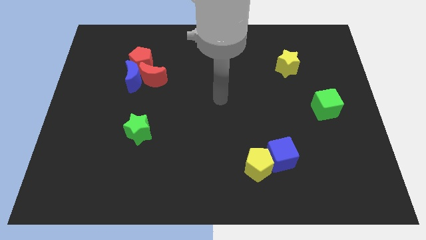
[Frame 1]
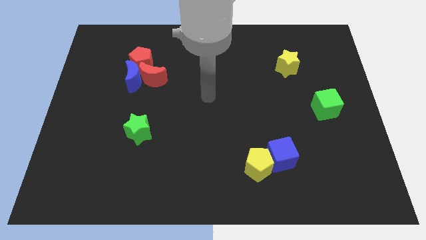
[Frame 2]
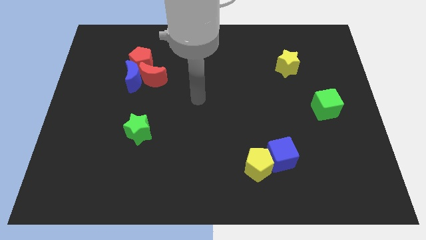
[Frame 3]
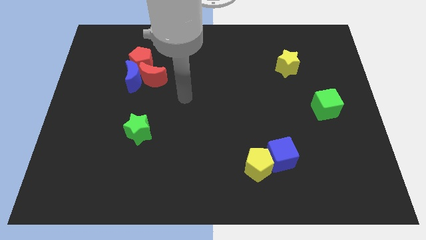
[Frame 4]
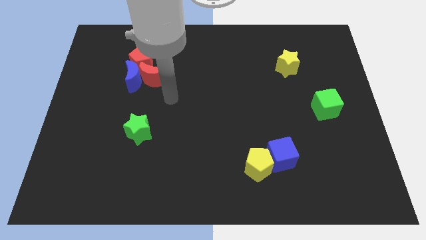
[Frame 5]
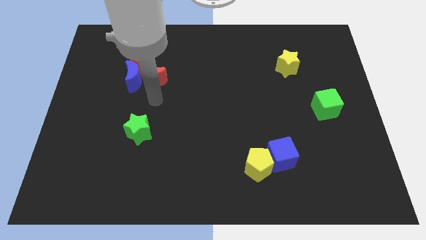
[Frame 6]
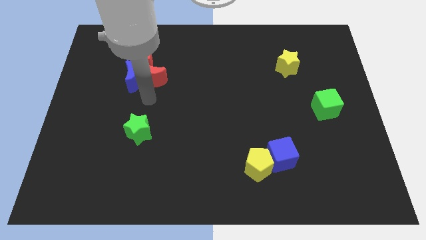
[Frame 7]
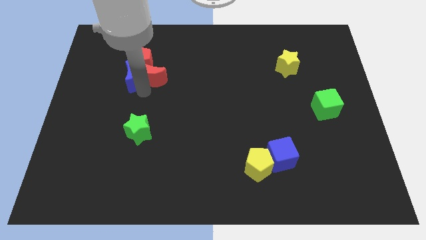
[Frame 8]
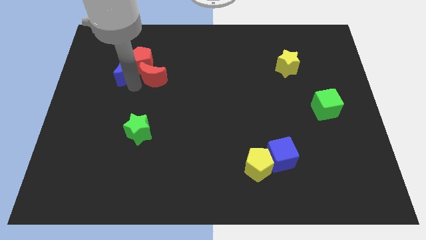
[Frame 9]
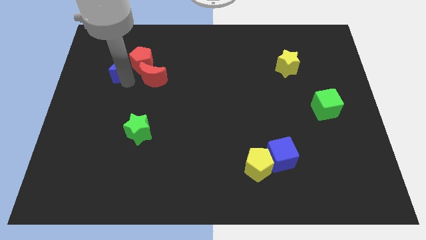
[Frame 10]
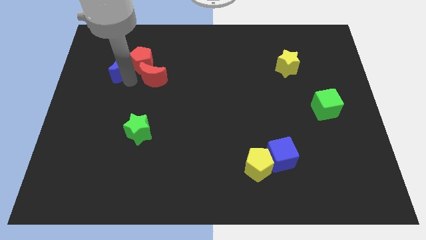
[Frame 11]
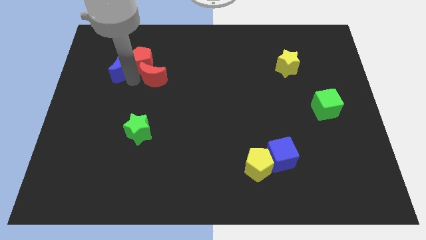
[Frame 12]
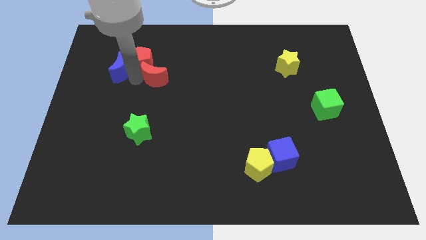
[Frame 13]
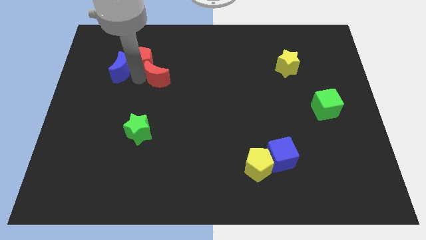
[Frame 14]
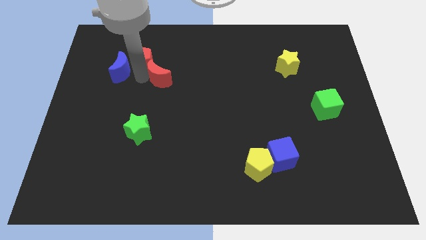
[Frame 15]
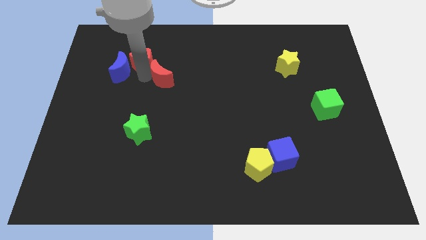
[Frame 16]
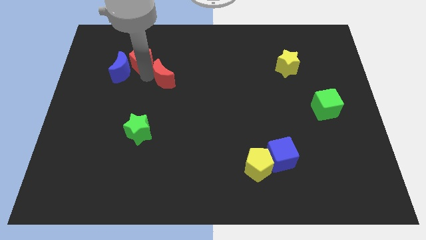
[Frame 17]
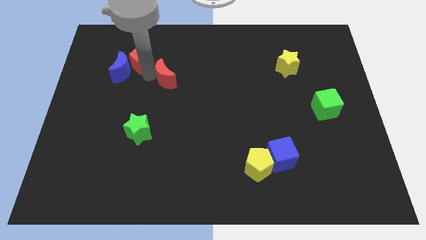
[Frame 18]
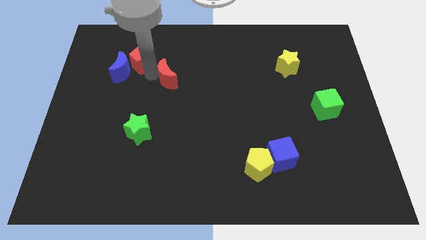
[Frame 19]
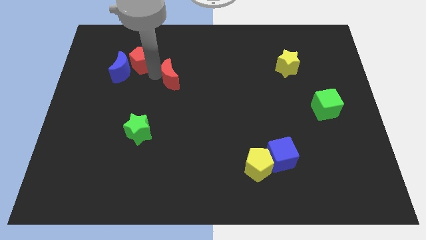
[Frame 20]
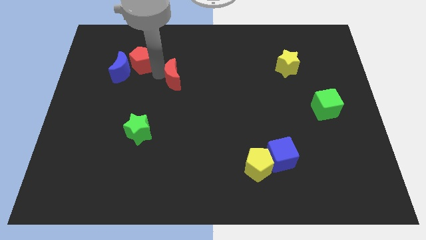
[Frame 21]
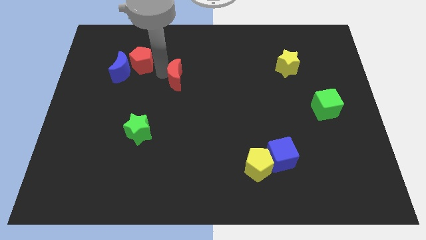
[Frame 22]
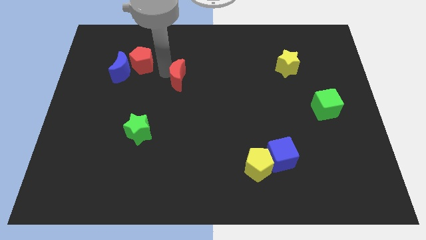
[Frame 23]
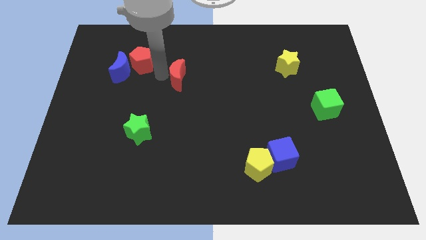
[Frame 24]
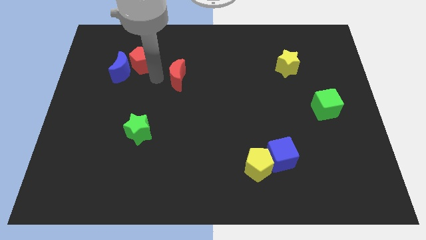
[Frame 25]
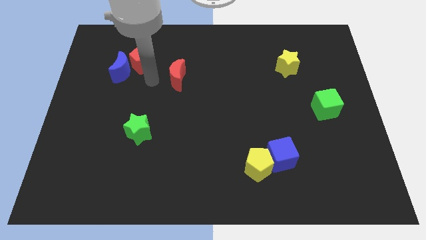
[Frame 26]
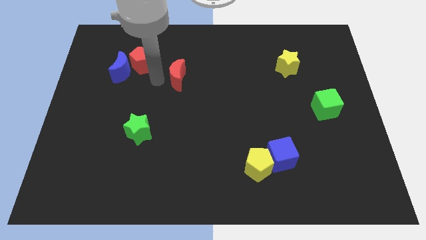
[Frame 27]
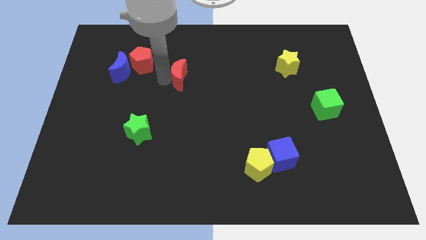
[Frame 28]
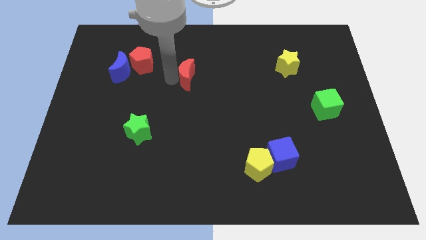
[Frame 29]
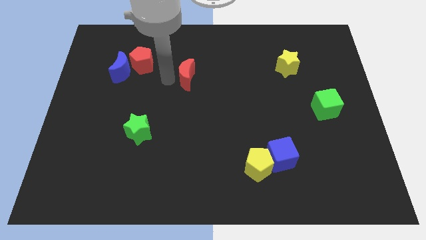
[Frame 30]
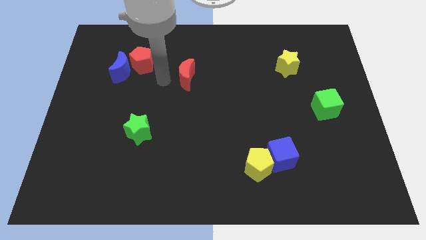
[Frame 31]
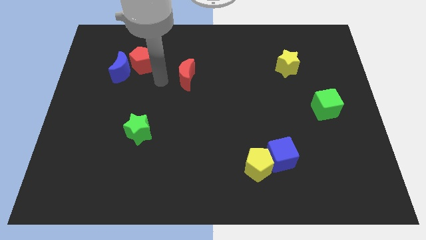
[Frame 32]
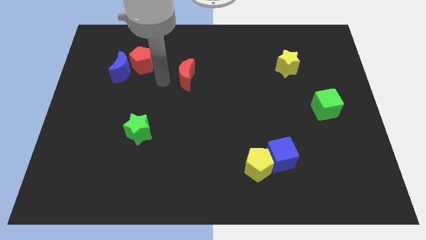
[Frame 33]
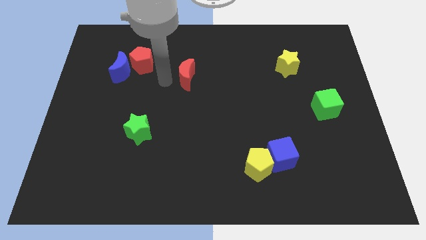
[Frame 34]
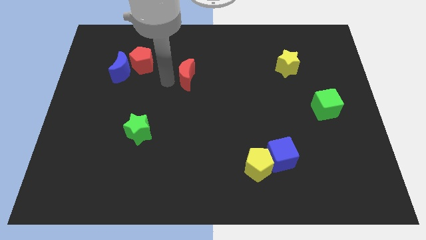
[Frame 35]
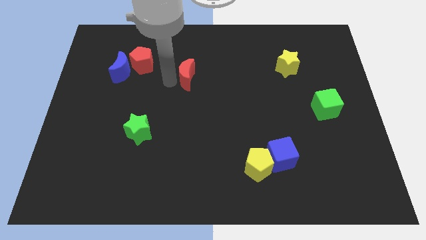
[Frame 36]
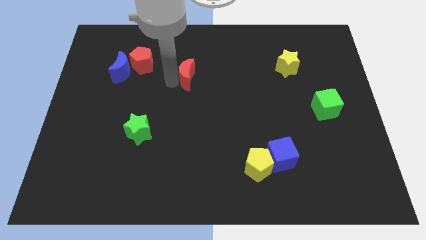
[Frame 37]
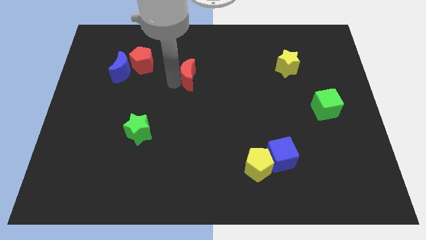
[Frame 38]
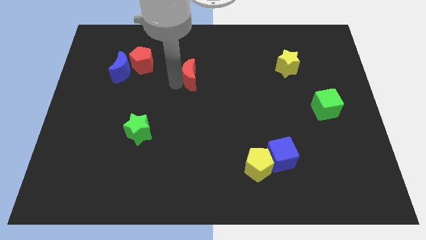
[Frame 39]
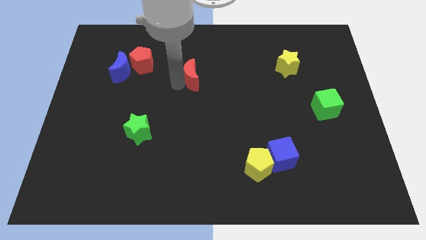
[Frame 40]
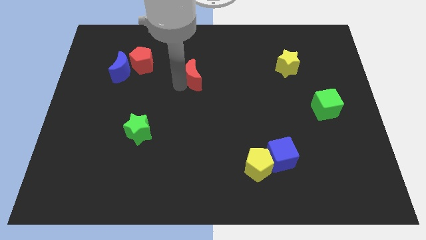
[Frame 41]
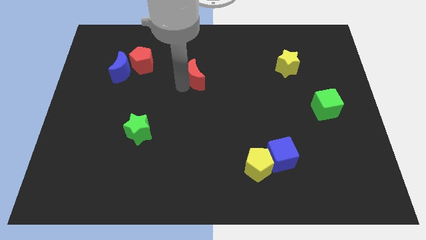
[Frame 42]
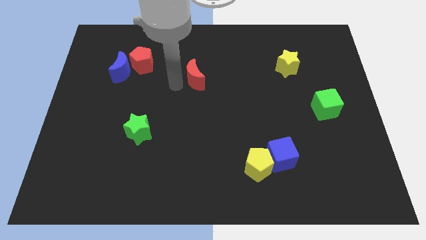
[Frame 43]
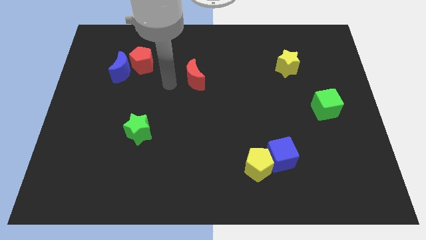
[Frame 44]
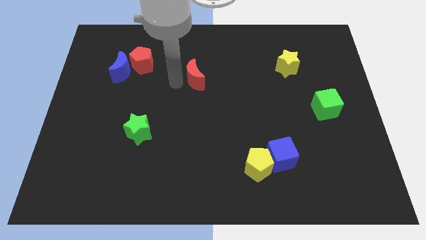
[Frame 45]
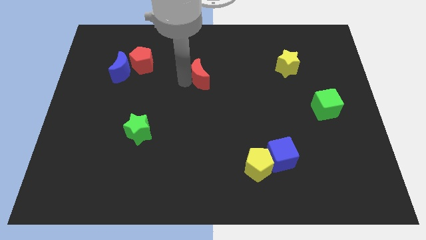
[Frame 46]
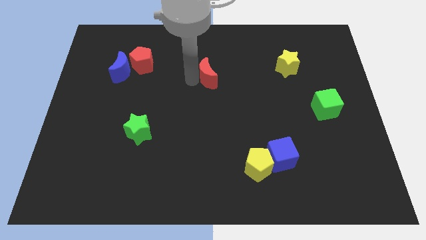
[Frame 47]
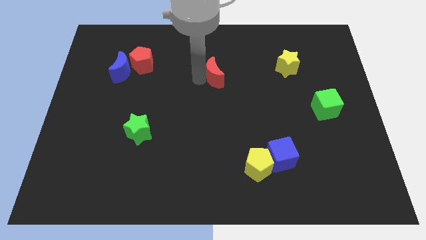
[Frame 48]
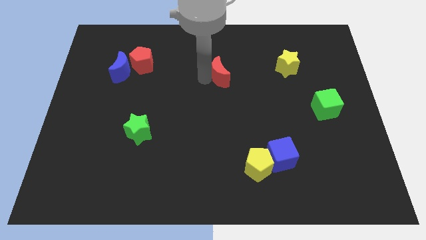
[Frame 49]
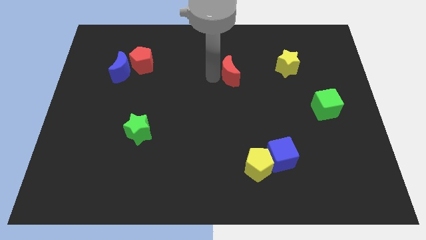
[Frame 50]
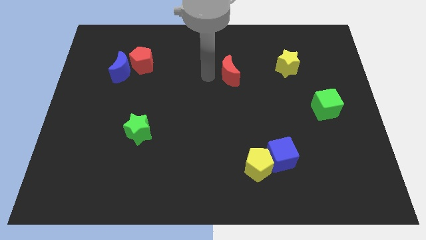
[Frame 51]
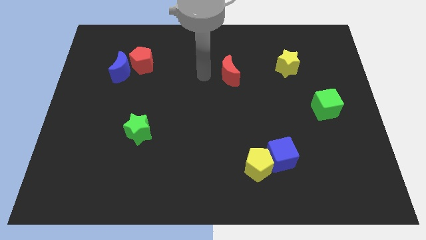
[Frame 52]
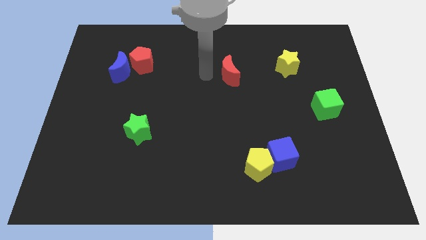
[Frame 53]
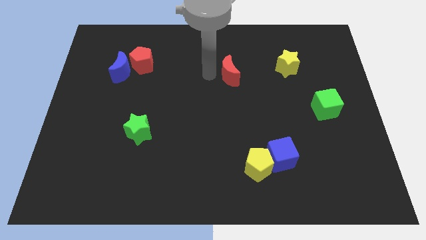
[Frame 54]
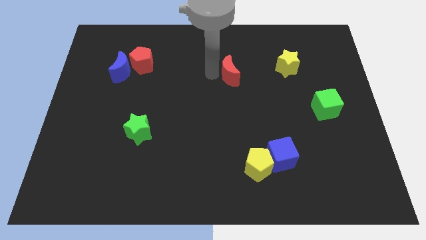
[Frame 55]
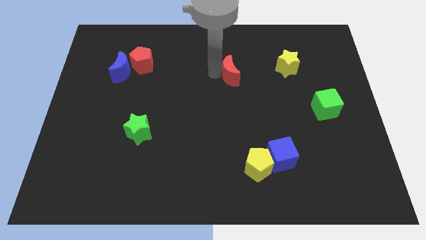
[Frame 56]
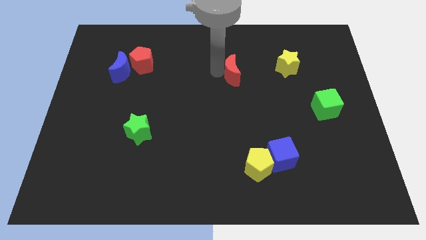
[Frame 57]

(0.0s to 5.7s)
move the red moon to the right

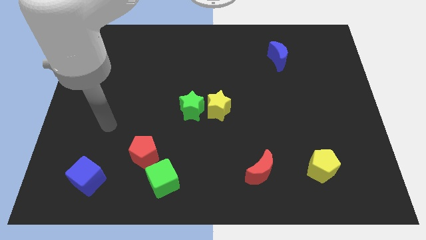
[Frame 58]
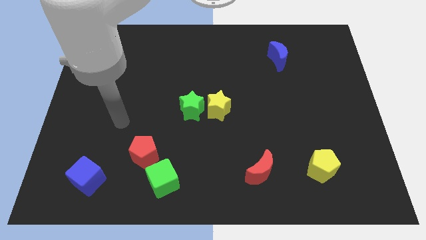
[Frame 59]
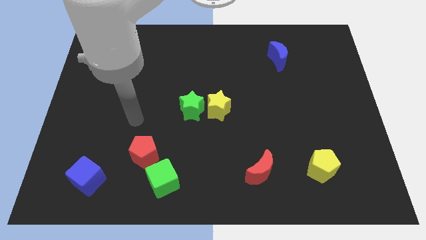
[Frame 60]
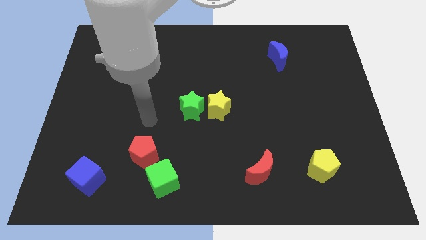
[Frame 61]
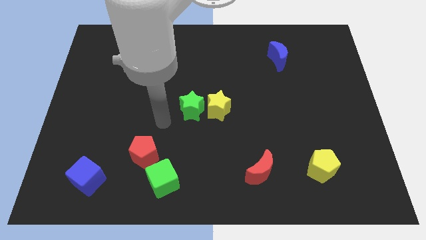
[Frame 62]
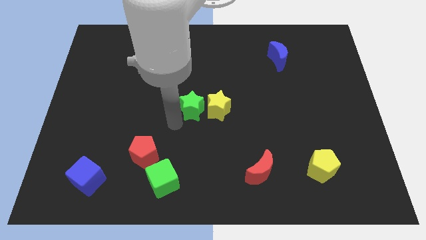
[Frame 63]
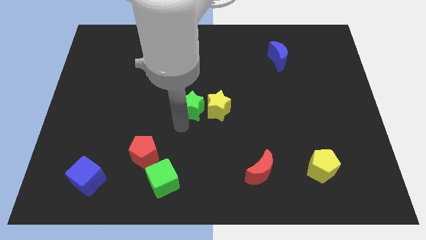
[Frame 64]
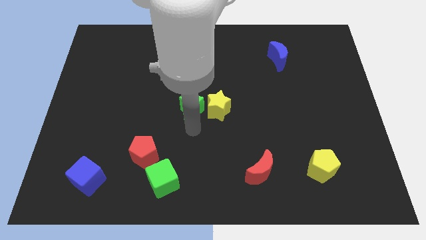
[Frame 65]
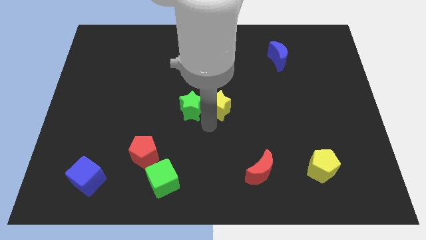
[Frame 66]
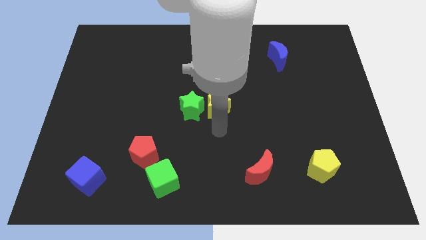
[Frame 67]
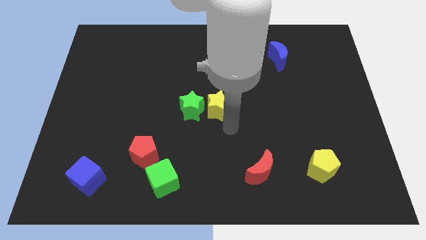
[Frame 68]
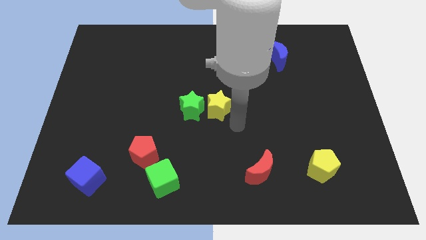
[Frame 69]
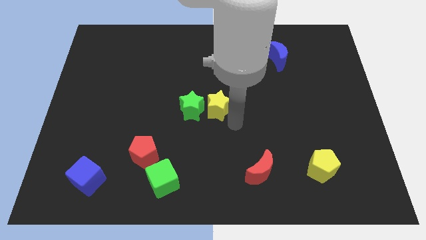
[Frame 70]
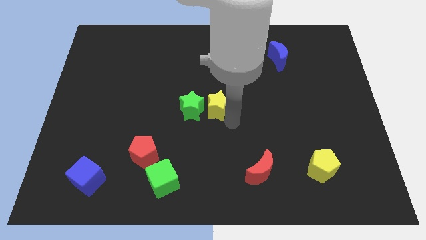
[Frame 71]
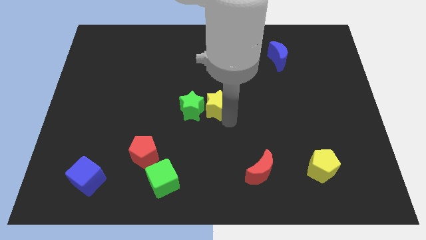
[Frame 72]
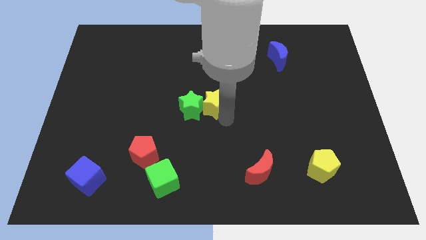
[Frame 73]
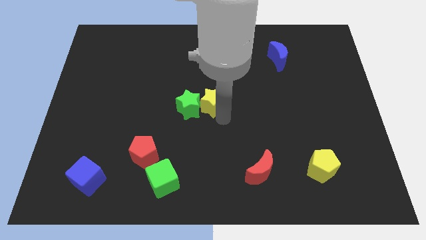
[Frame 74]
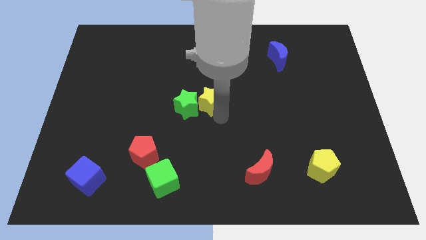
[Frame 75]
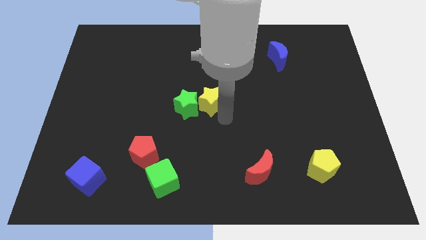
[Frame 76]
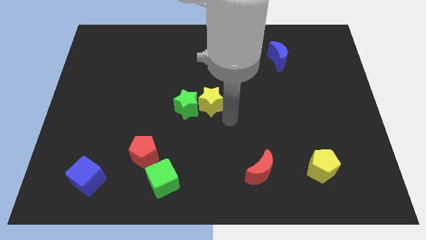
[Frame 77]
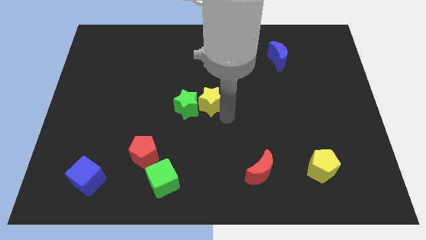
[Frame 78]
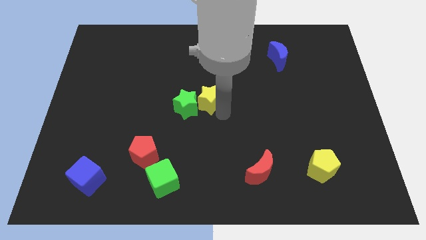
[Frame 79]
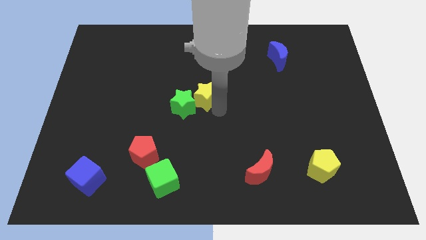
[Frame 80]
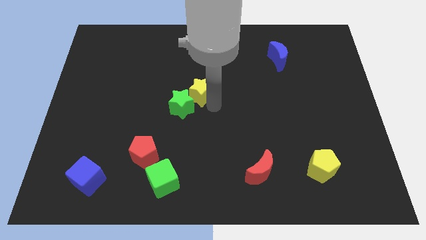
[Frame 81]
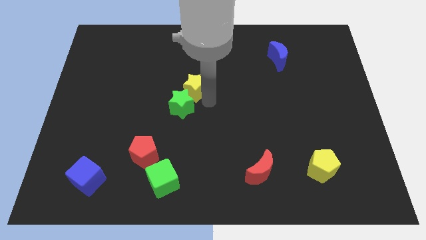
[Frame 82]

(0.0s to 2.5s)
move the yellow star somewhat upwards and then to the left
